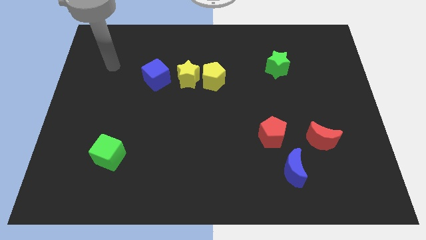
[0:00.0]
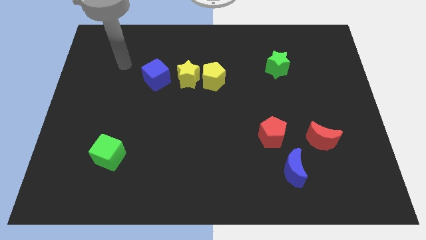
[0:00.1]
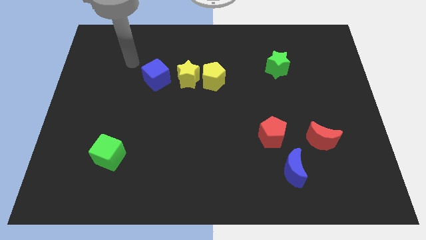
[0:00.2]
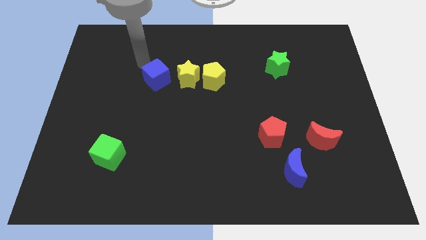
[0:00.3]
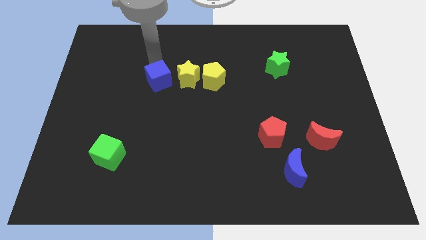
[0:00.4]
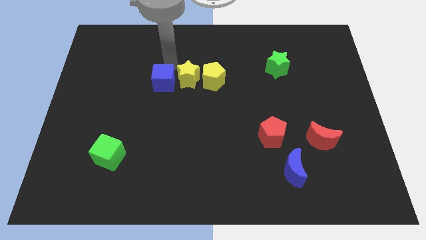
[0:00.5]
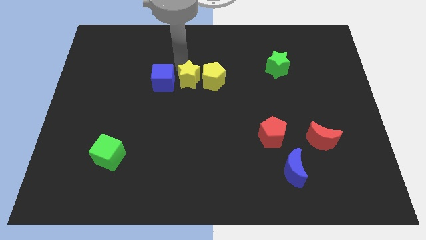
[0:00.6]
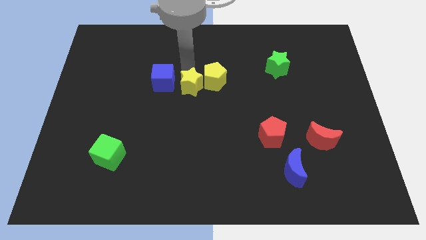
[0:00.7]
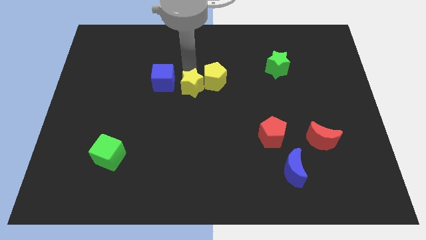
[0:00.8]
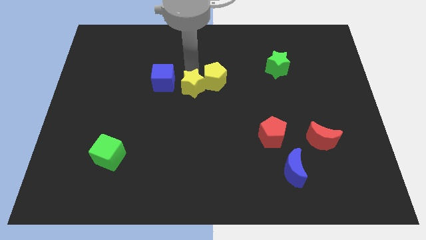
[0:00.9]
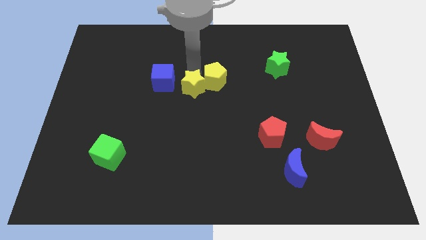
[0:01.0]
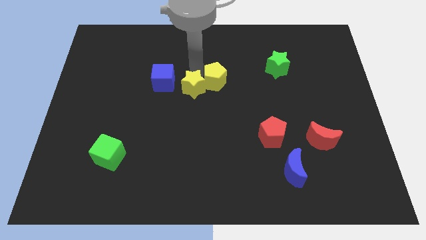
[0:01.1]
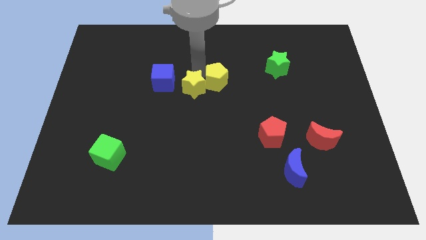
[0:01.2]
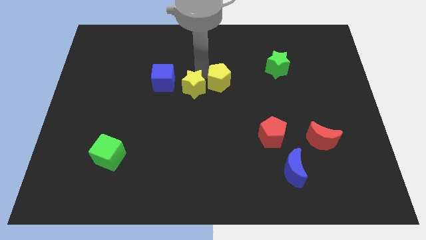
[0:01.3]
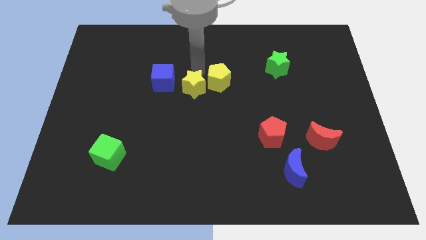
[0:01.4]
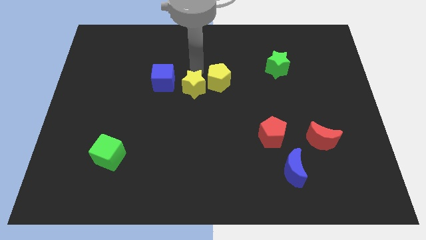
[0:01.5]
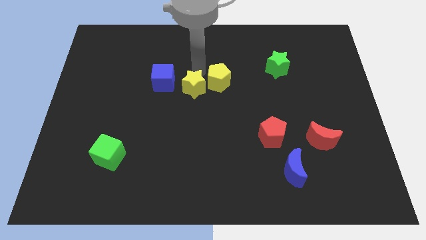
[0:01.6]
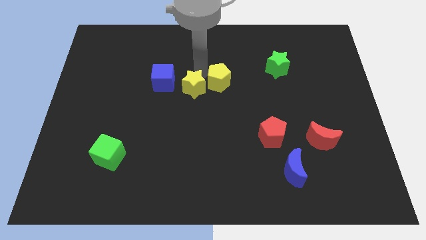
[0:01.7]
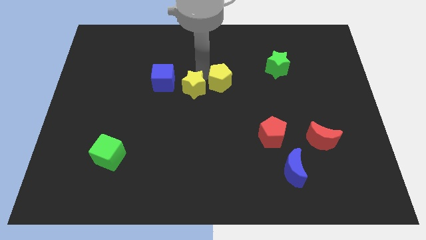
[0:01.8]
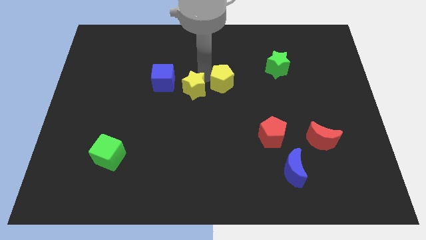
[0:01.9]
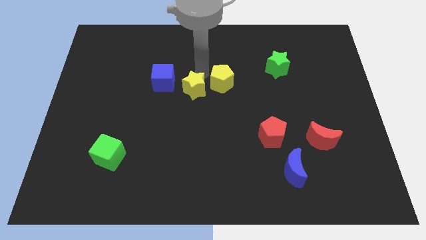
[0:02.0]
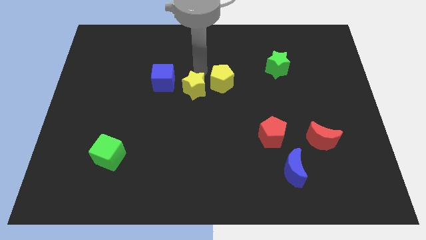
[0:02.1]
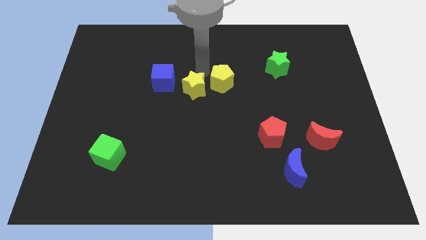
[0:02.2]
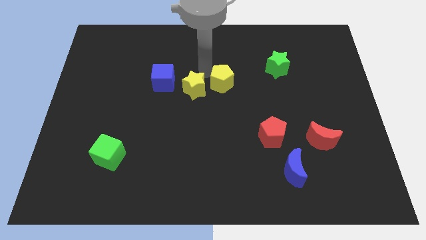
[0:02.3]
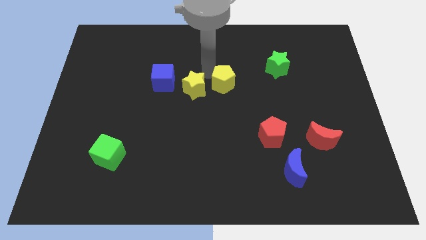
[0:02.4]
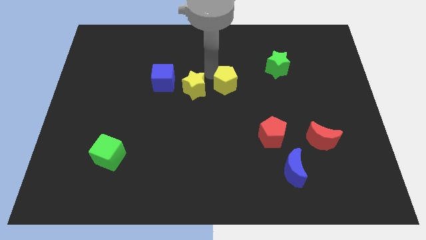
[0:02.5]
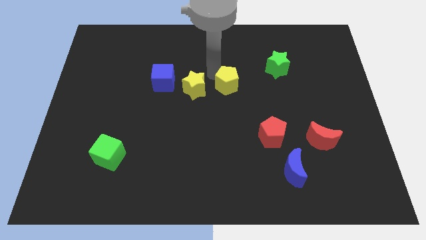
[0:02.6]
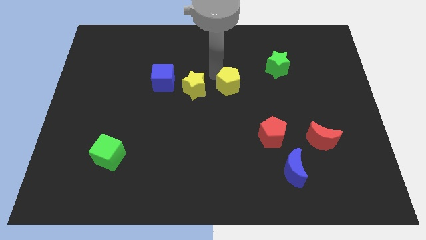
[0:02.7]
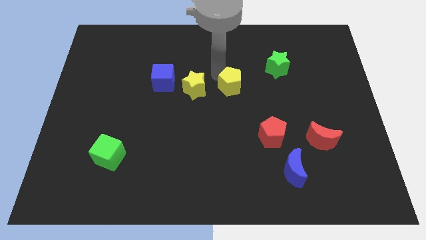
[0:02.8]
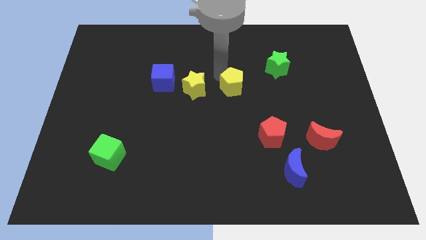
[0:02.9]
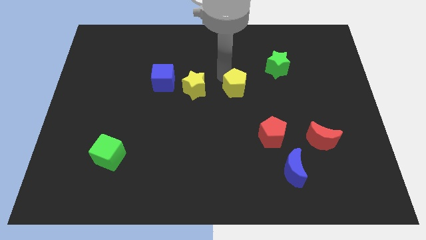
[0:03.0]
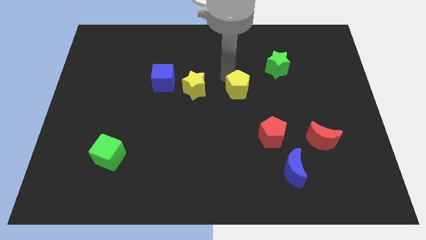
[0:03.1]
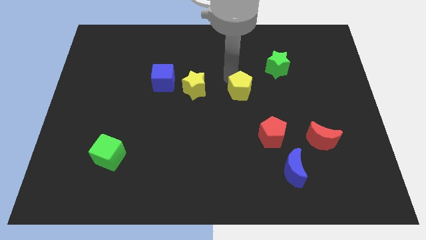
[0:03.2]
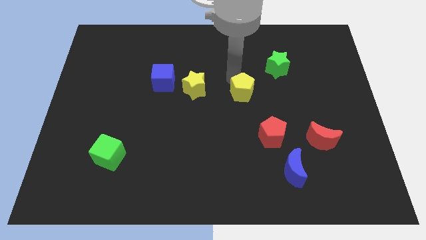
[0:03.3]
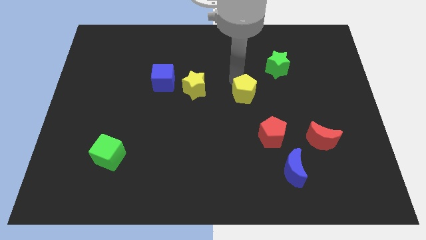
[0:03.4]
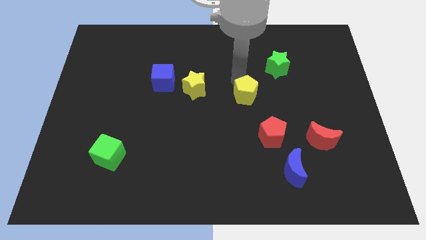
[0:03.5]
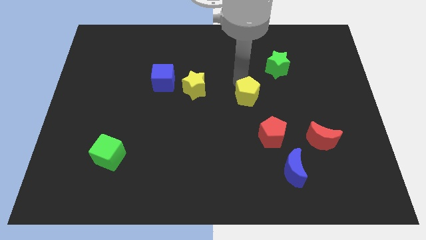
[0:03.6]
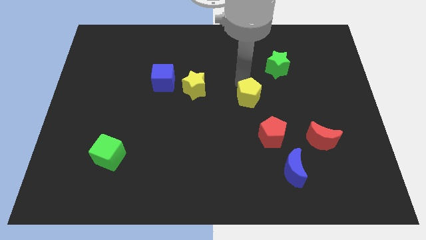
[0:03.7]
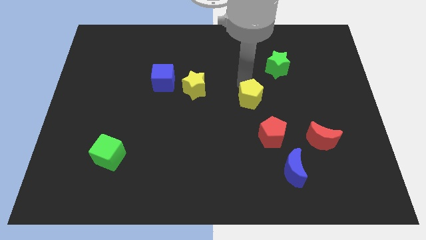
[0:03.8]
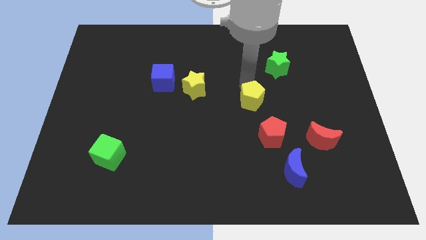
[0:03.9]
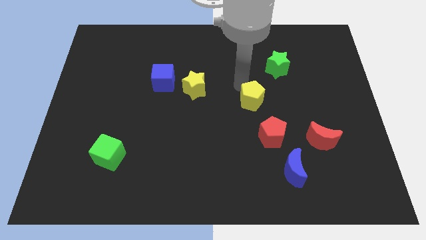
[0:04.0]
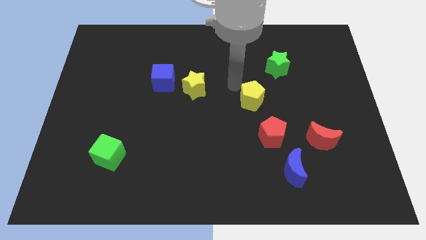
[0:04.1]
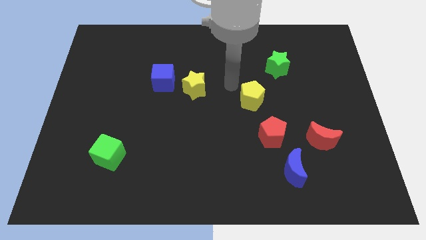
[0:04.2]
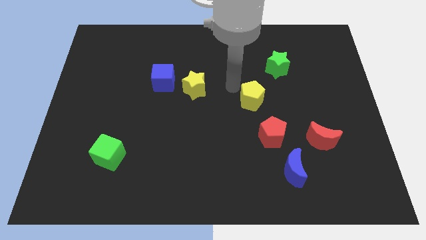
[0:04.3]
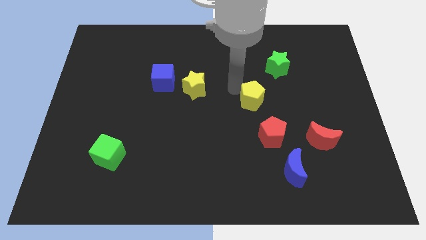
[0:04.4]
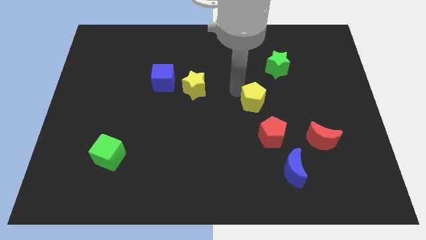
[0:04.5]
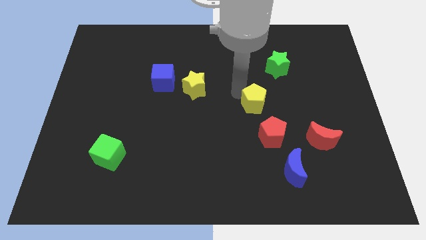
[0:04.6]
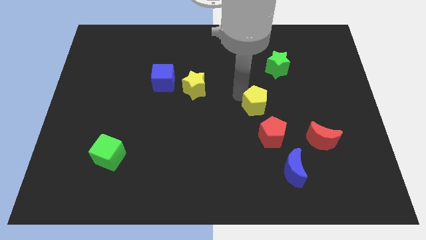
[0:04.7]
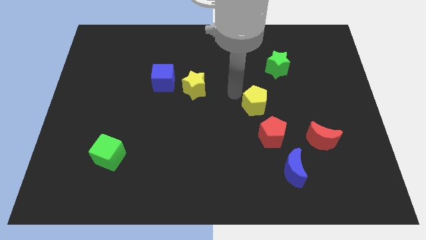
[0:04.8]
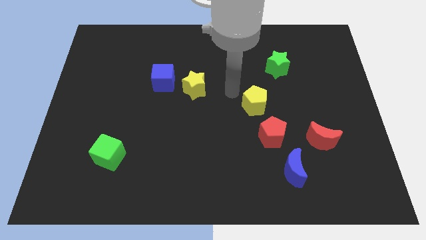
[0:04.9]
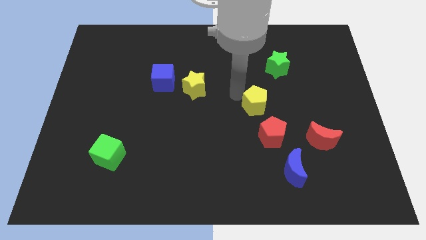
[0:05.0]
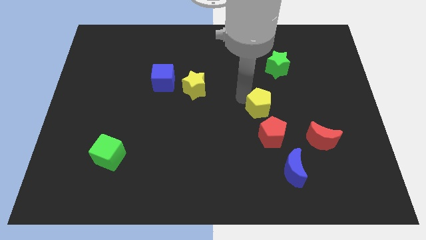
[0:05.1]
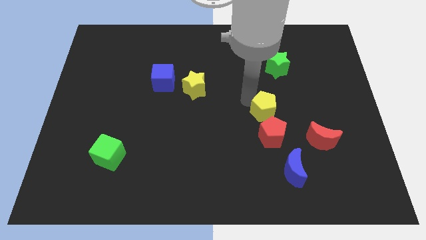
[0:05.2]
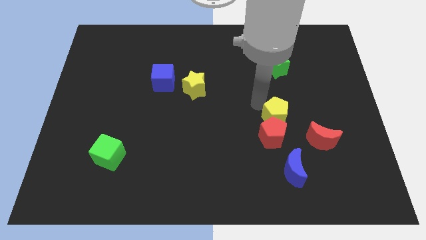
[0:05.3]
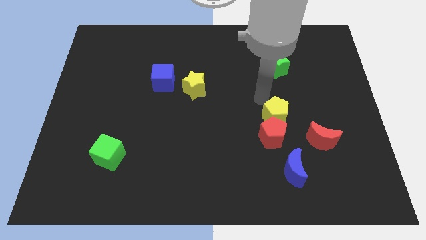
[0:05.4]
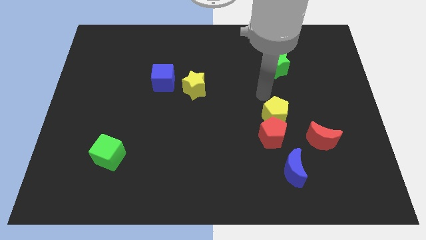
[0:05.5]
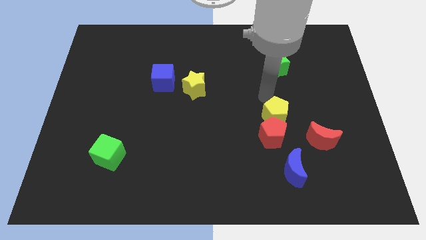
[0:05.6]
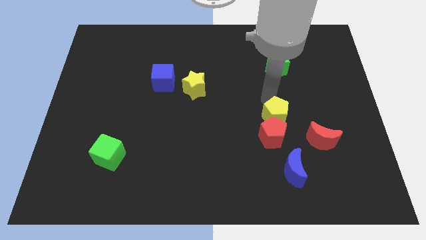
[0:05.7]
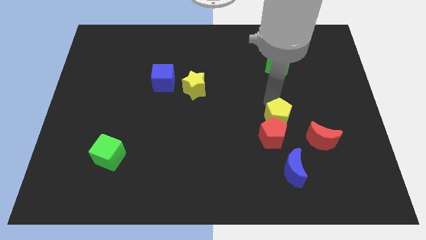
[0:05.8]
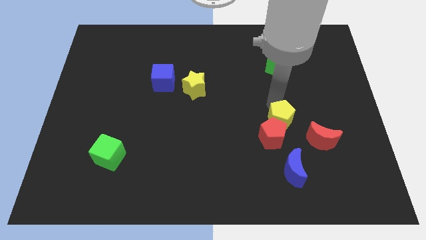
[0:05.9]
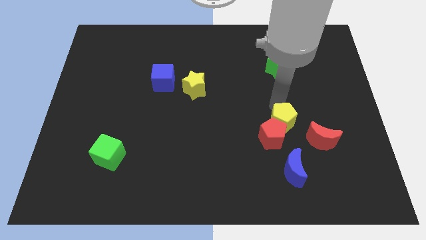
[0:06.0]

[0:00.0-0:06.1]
move the yellow pentagon downwards and then to the right

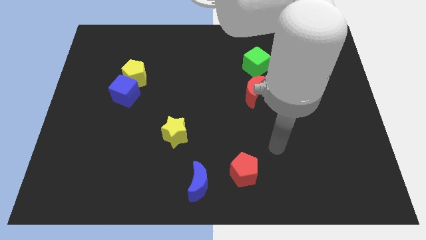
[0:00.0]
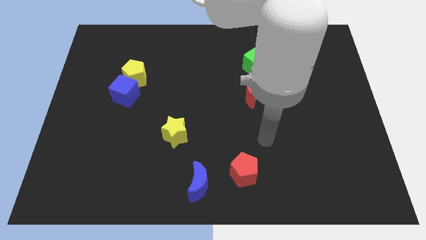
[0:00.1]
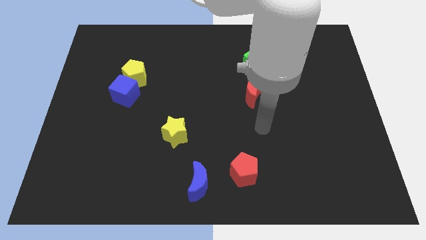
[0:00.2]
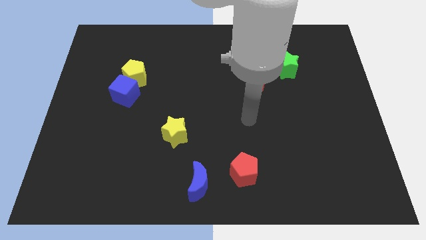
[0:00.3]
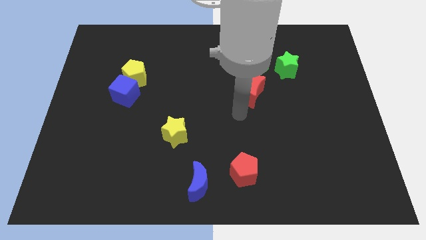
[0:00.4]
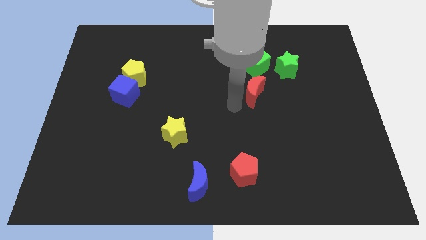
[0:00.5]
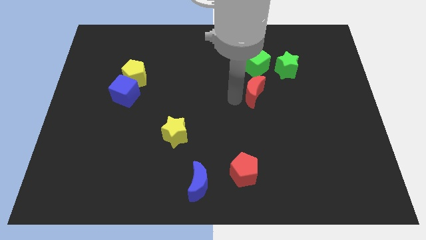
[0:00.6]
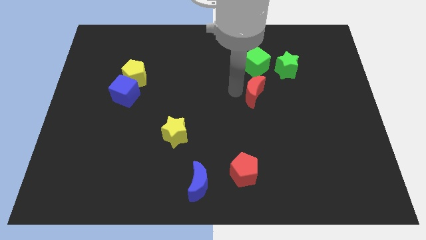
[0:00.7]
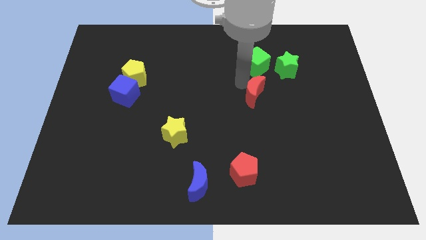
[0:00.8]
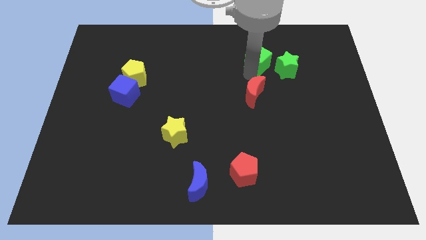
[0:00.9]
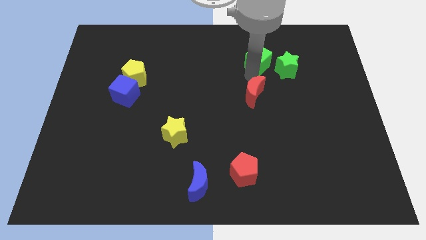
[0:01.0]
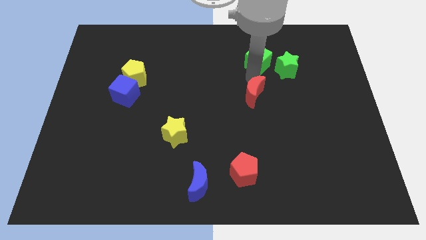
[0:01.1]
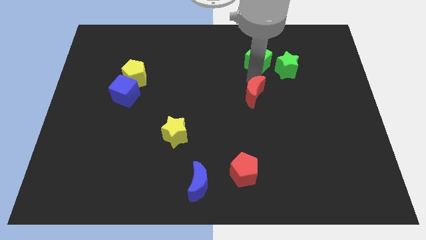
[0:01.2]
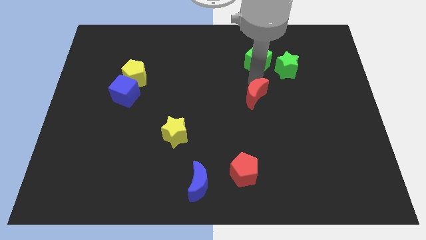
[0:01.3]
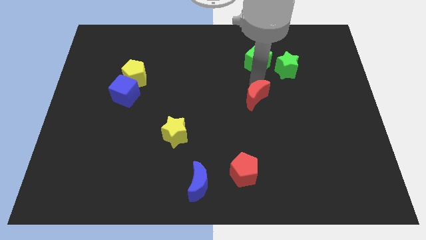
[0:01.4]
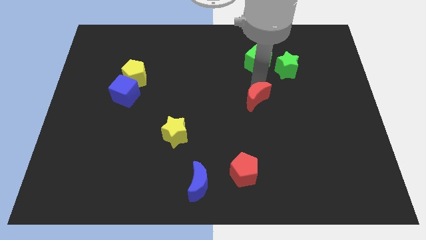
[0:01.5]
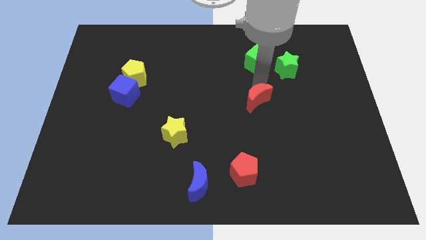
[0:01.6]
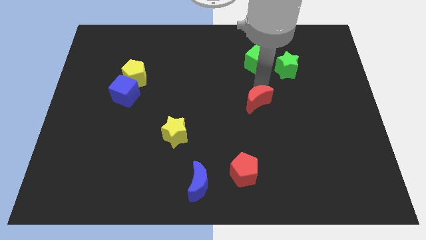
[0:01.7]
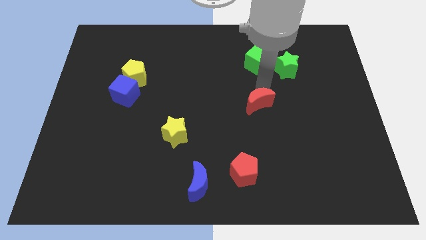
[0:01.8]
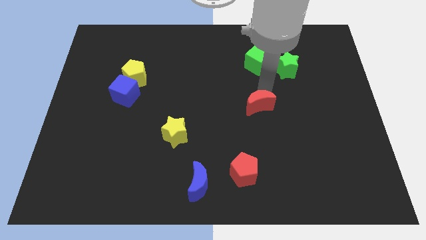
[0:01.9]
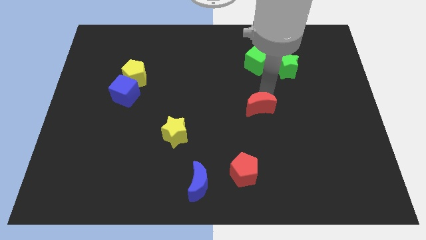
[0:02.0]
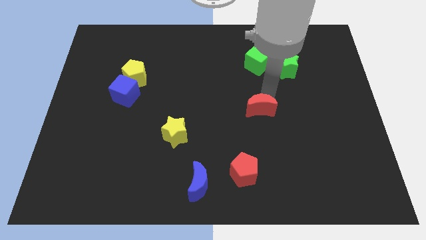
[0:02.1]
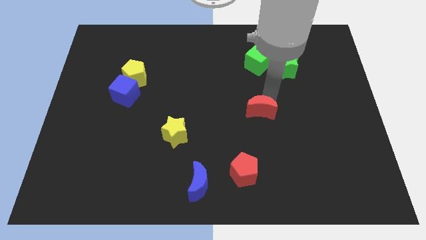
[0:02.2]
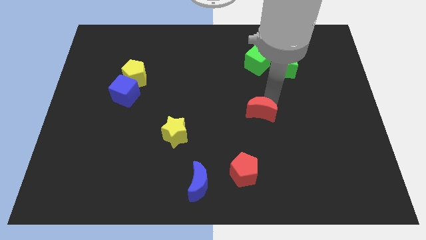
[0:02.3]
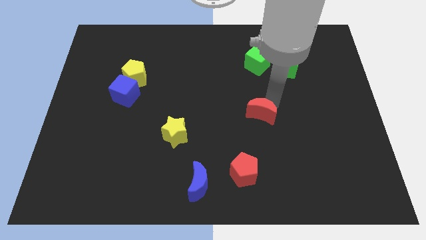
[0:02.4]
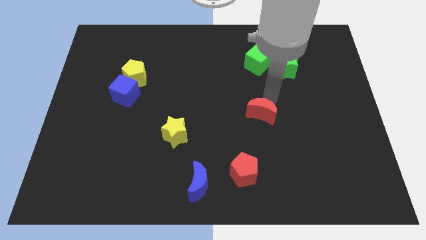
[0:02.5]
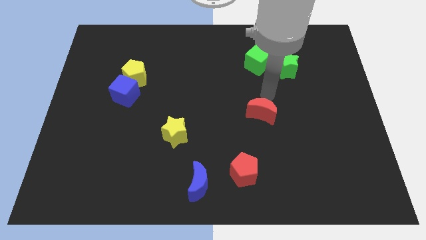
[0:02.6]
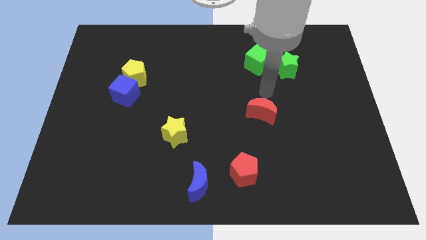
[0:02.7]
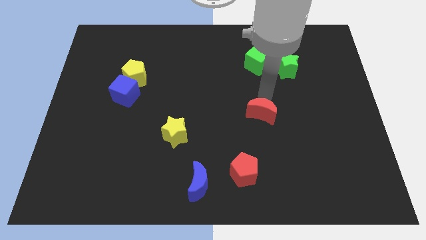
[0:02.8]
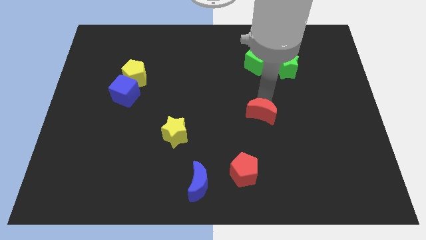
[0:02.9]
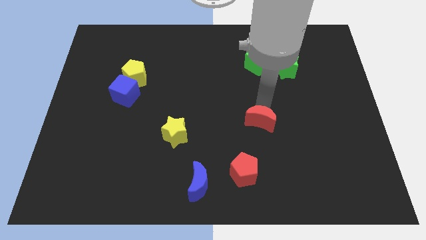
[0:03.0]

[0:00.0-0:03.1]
slightly push the red moon down
